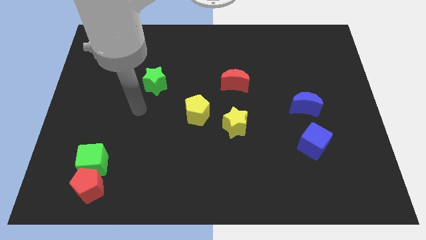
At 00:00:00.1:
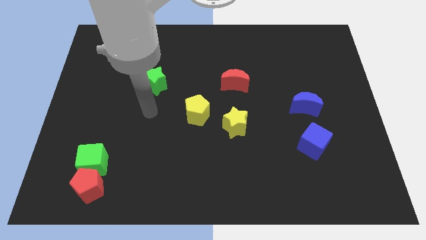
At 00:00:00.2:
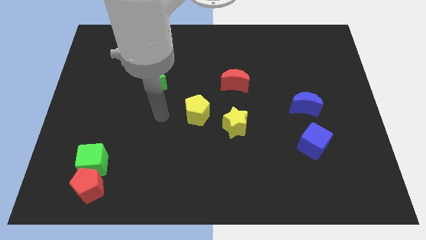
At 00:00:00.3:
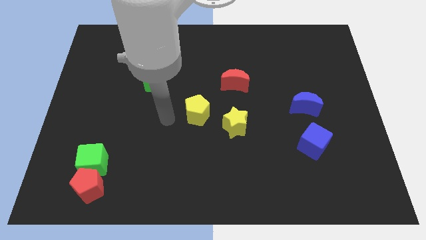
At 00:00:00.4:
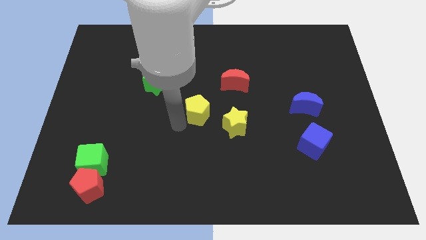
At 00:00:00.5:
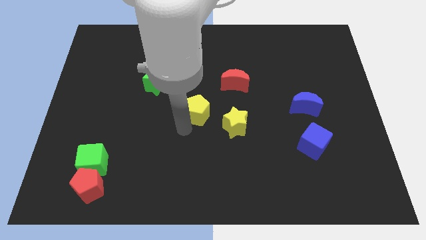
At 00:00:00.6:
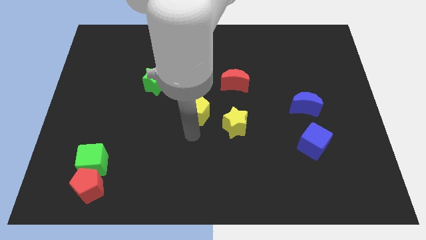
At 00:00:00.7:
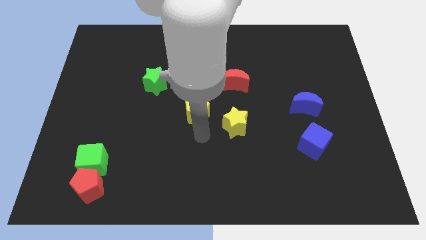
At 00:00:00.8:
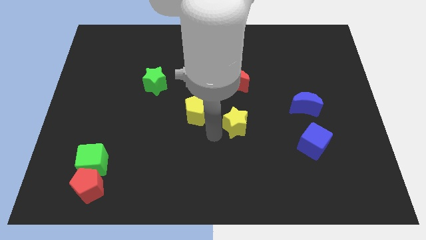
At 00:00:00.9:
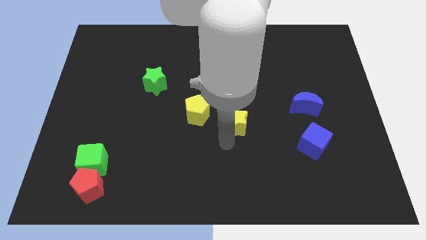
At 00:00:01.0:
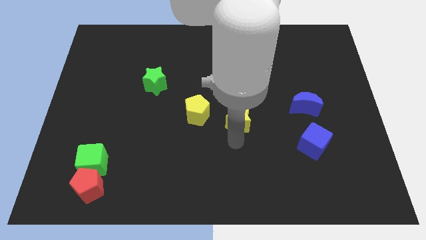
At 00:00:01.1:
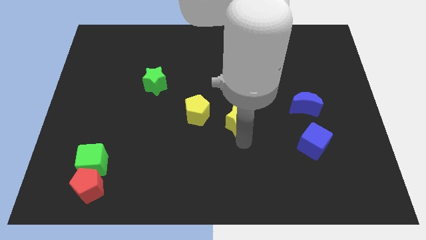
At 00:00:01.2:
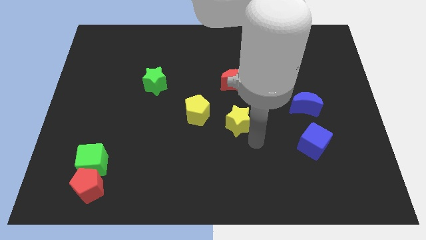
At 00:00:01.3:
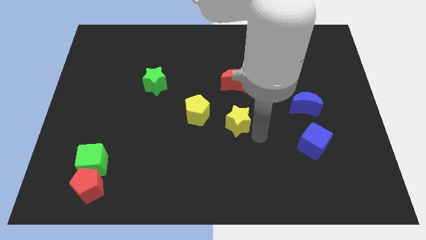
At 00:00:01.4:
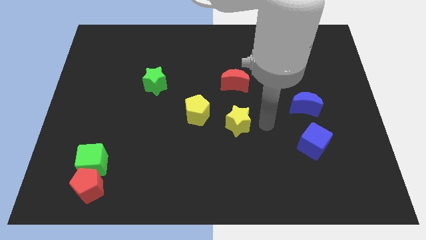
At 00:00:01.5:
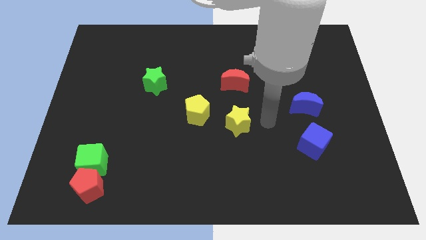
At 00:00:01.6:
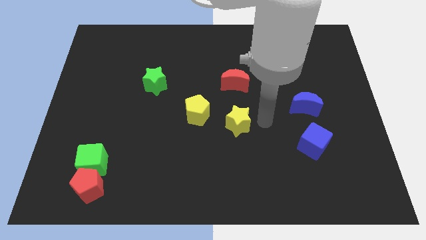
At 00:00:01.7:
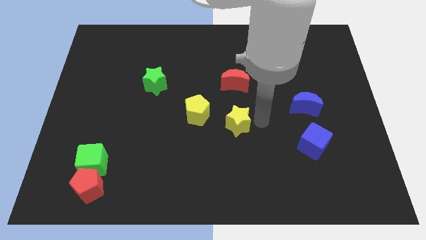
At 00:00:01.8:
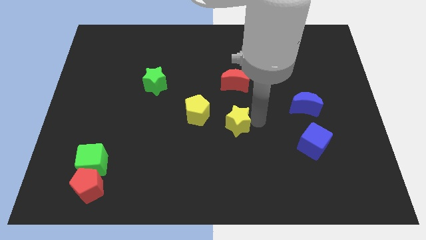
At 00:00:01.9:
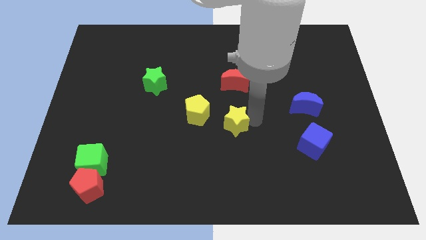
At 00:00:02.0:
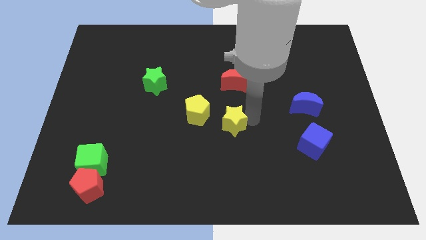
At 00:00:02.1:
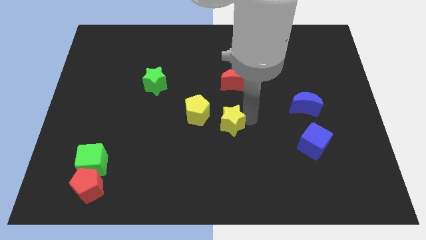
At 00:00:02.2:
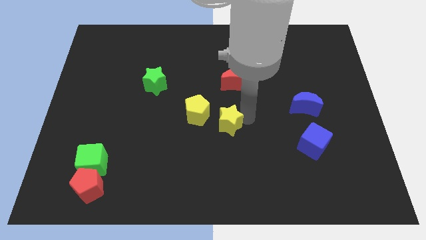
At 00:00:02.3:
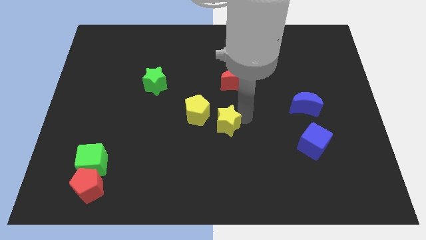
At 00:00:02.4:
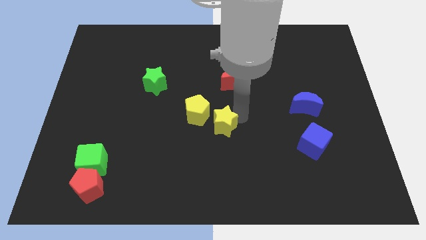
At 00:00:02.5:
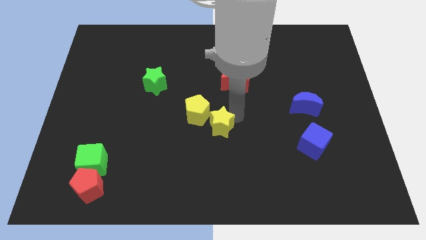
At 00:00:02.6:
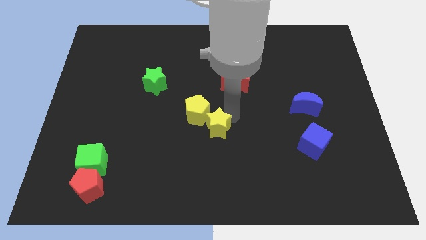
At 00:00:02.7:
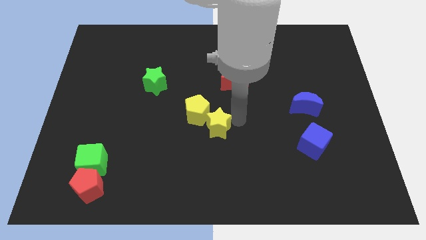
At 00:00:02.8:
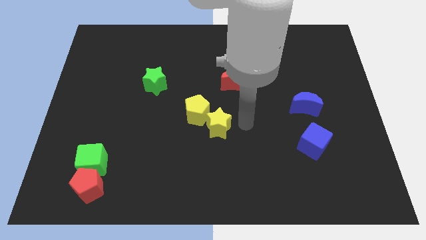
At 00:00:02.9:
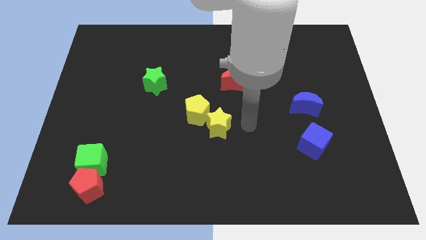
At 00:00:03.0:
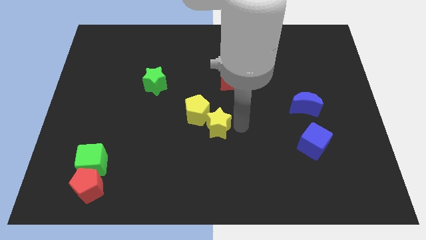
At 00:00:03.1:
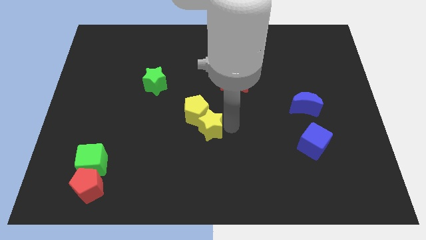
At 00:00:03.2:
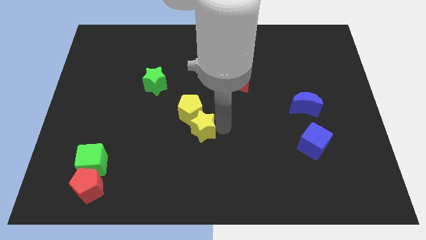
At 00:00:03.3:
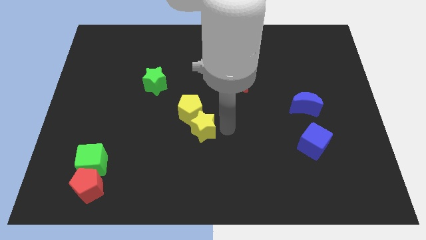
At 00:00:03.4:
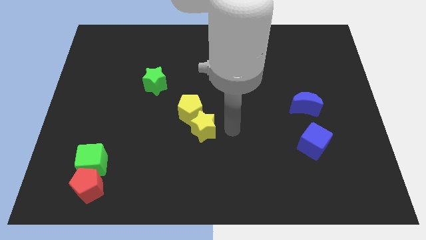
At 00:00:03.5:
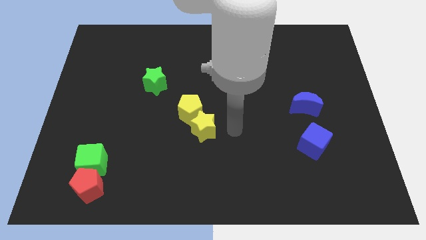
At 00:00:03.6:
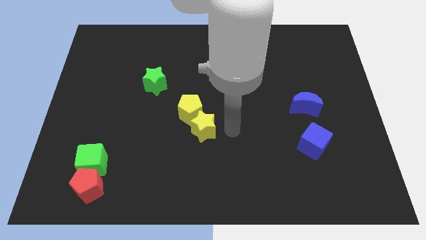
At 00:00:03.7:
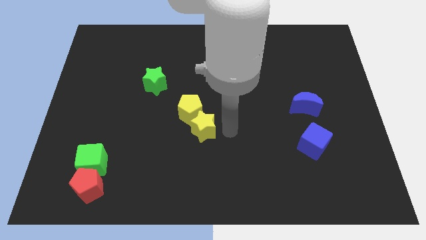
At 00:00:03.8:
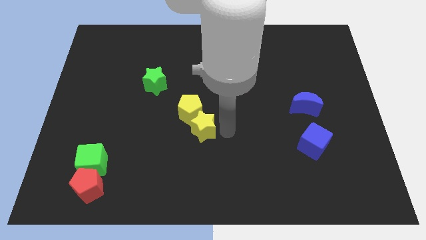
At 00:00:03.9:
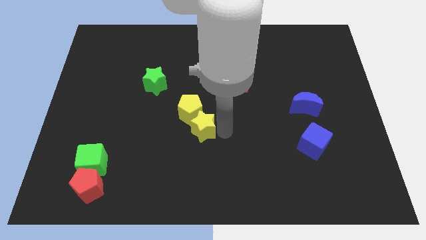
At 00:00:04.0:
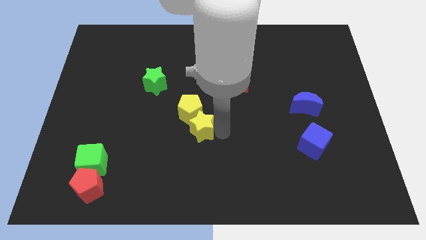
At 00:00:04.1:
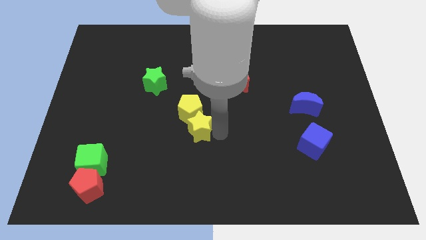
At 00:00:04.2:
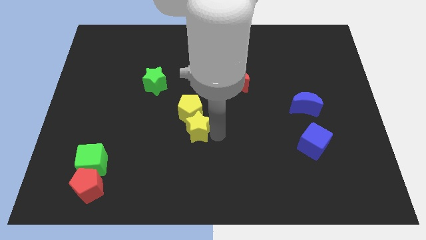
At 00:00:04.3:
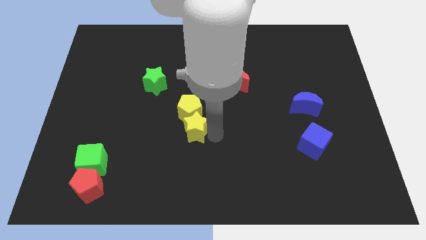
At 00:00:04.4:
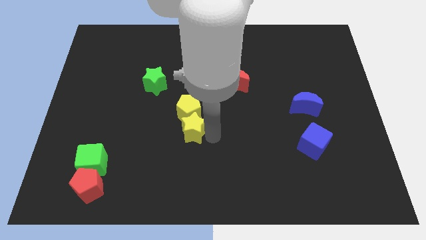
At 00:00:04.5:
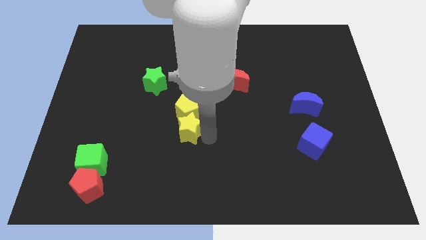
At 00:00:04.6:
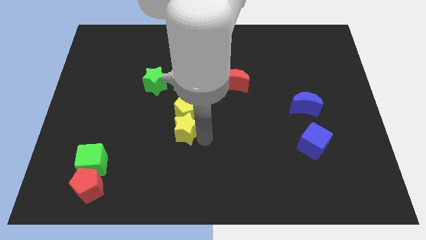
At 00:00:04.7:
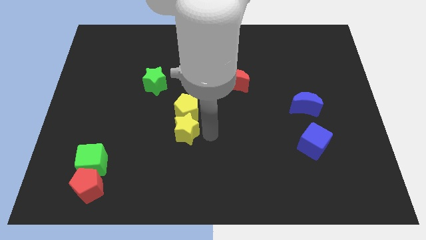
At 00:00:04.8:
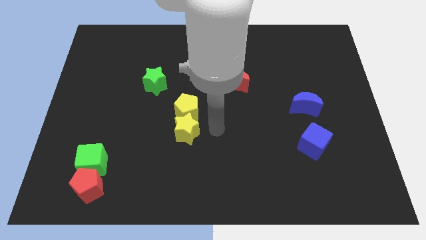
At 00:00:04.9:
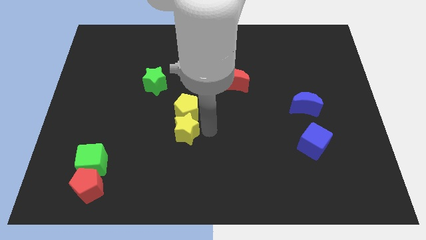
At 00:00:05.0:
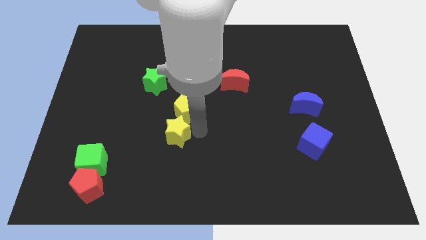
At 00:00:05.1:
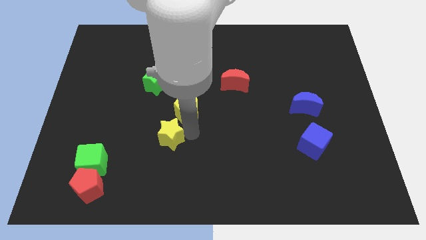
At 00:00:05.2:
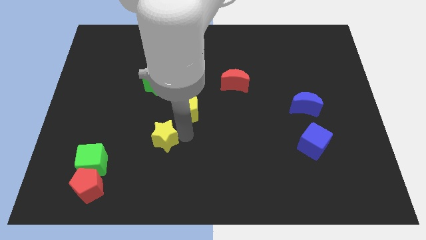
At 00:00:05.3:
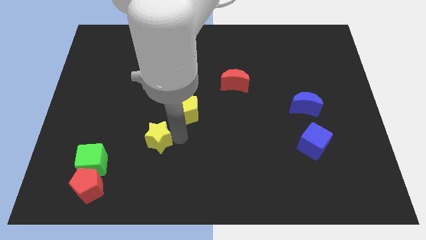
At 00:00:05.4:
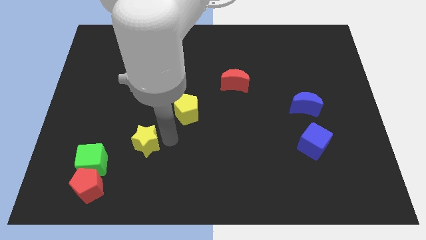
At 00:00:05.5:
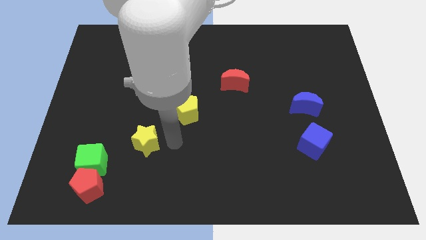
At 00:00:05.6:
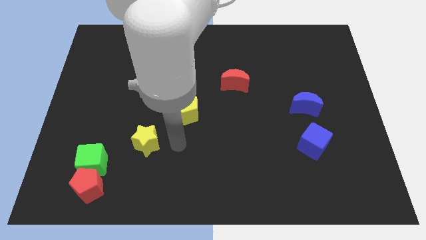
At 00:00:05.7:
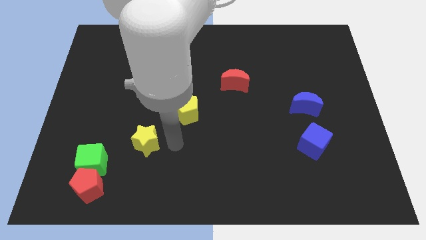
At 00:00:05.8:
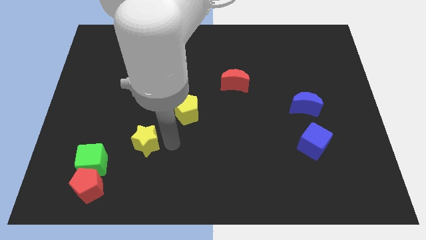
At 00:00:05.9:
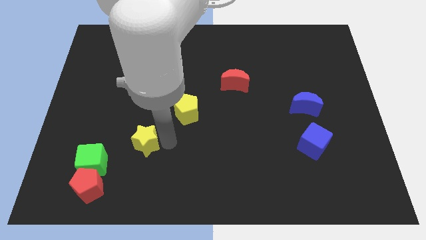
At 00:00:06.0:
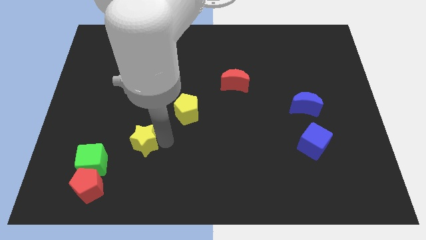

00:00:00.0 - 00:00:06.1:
slide the yellow star diagonally up and to the right of the green cube

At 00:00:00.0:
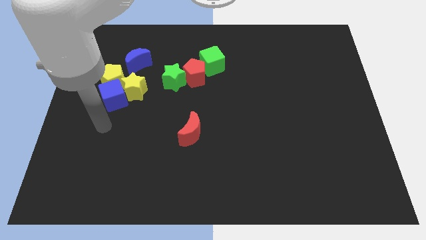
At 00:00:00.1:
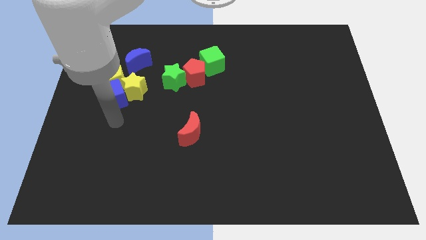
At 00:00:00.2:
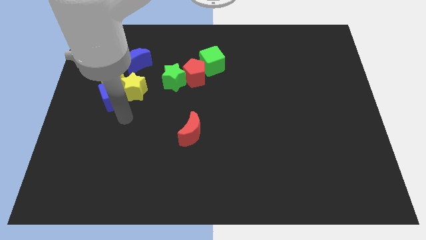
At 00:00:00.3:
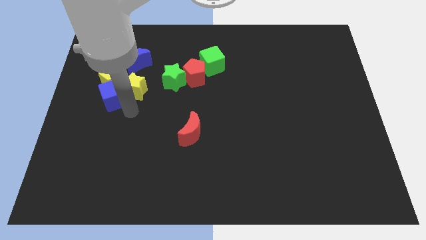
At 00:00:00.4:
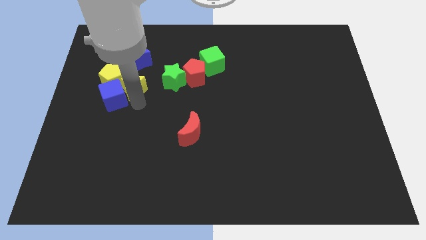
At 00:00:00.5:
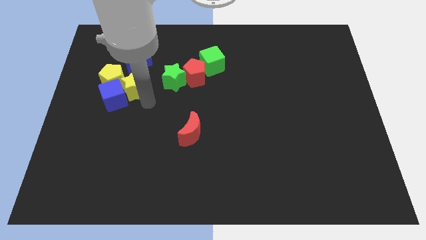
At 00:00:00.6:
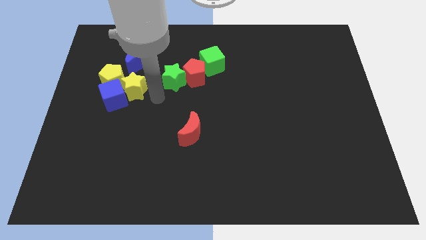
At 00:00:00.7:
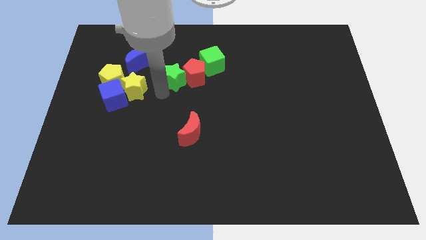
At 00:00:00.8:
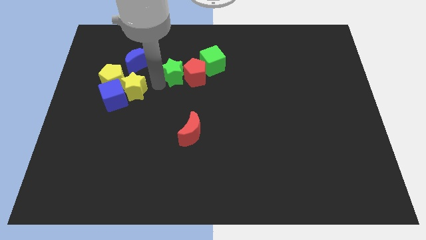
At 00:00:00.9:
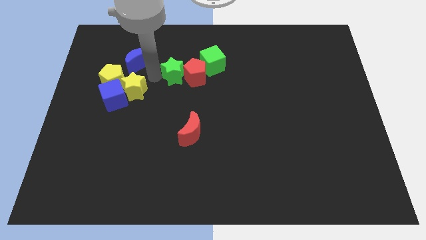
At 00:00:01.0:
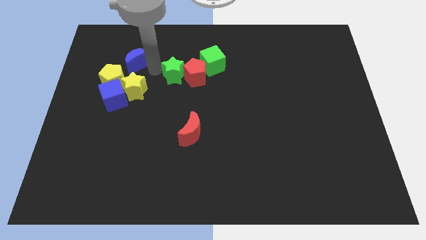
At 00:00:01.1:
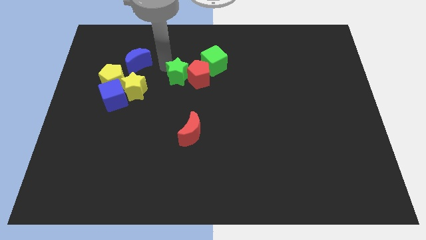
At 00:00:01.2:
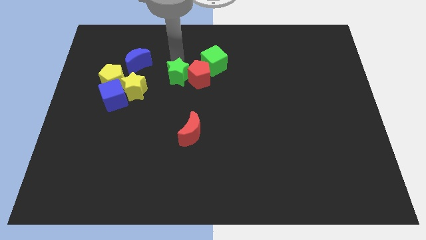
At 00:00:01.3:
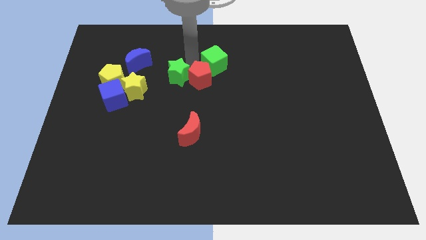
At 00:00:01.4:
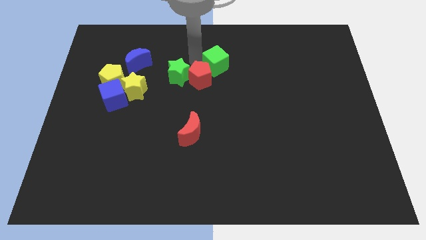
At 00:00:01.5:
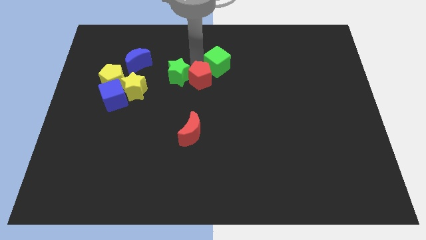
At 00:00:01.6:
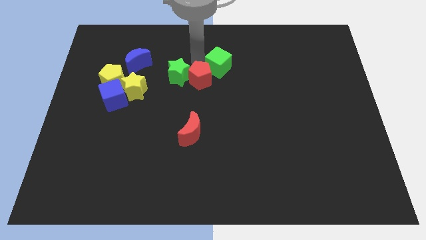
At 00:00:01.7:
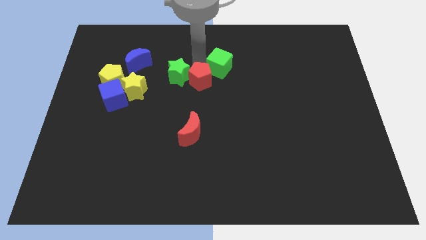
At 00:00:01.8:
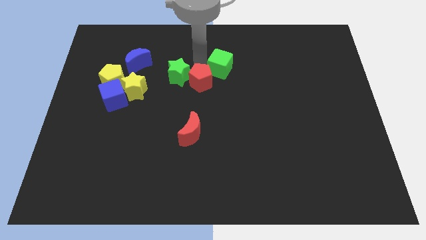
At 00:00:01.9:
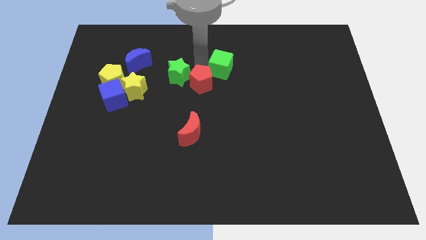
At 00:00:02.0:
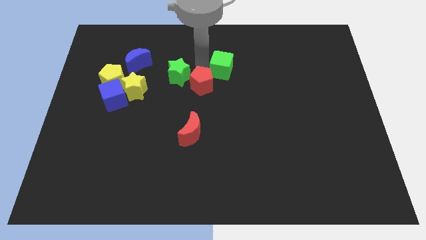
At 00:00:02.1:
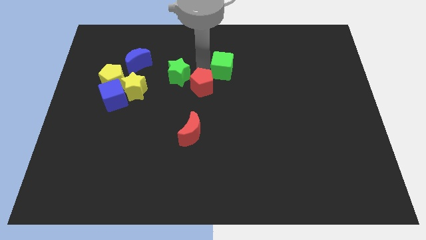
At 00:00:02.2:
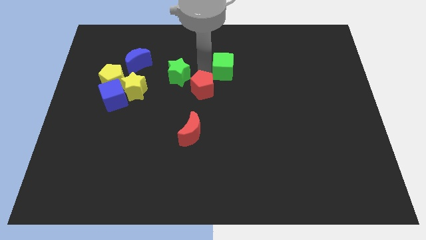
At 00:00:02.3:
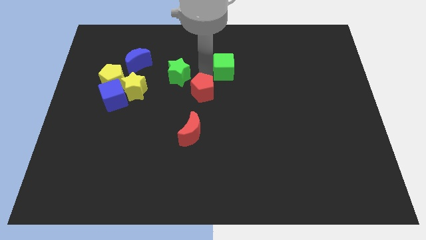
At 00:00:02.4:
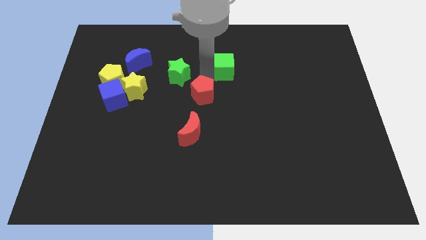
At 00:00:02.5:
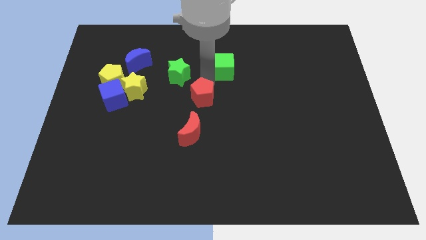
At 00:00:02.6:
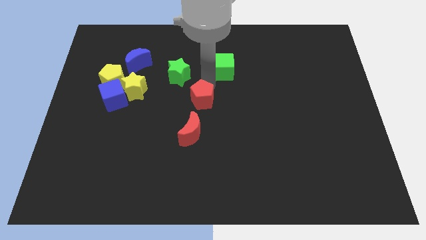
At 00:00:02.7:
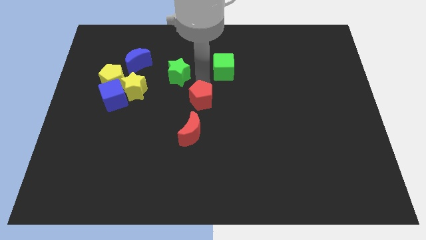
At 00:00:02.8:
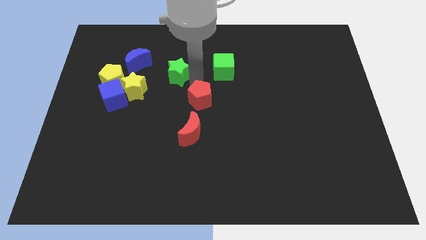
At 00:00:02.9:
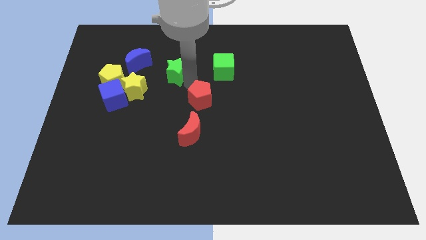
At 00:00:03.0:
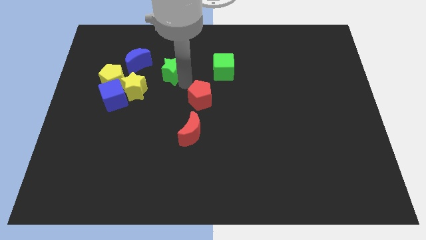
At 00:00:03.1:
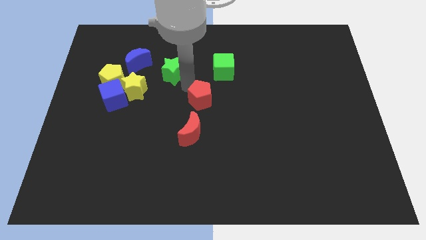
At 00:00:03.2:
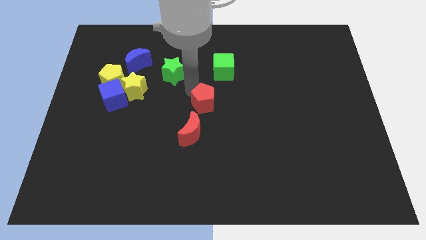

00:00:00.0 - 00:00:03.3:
put the red pentagon to the top right of the red moon
